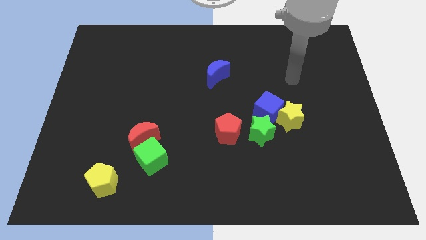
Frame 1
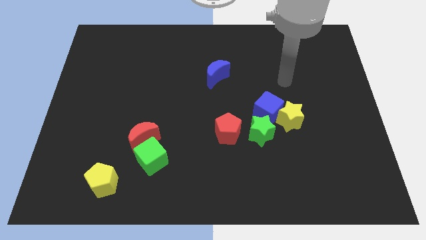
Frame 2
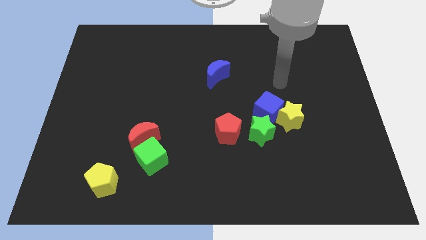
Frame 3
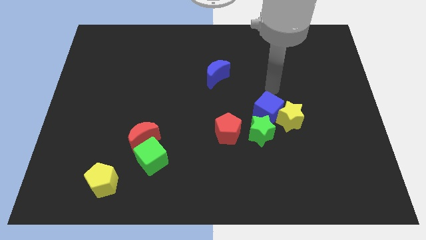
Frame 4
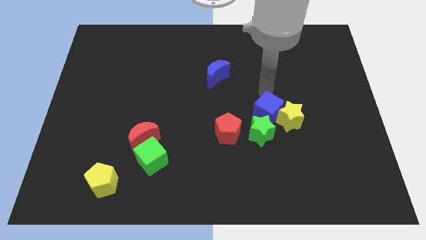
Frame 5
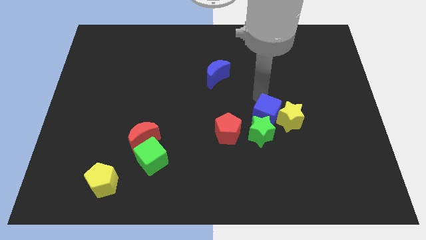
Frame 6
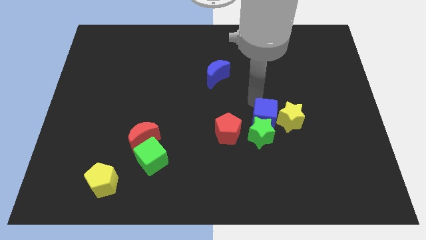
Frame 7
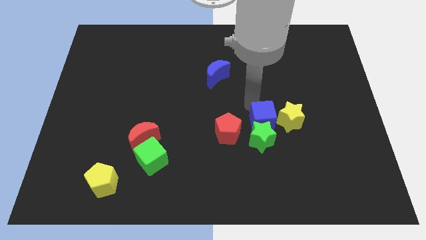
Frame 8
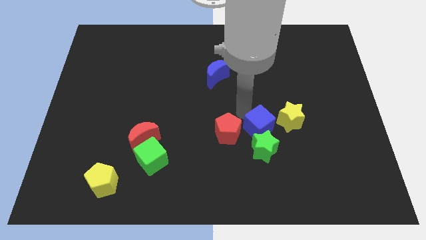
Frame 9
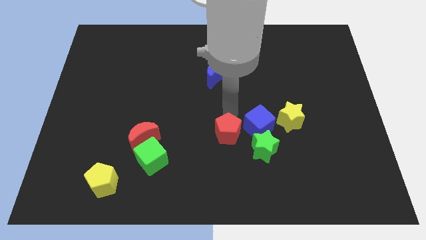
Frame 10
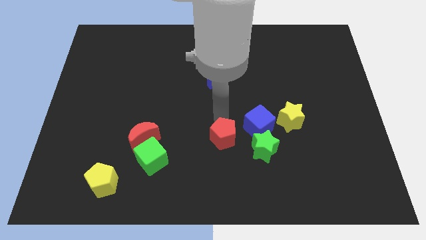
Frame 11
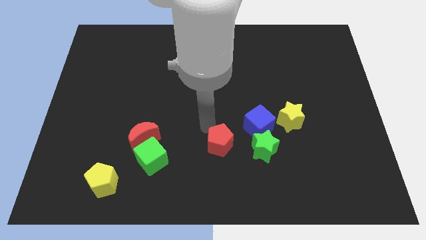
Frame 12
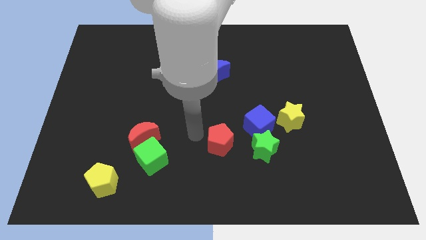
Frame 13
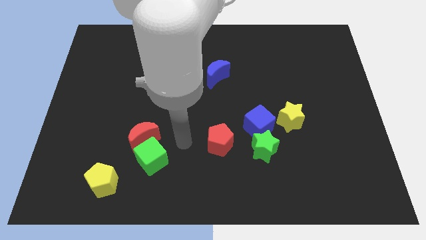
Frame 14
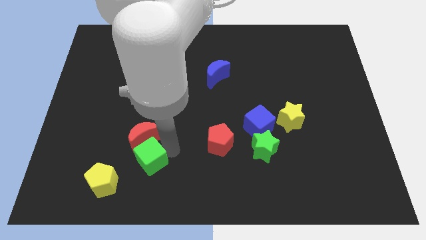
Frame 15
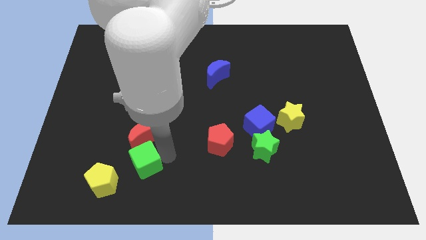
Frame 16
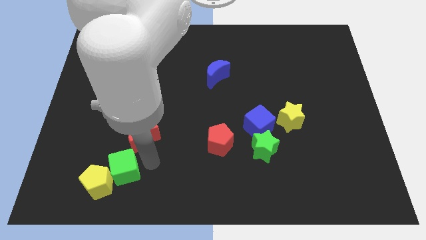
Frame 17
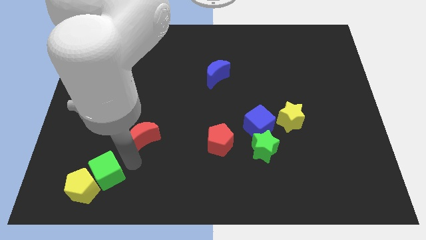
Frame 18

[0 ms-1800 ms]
pull the red moon apart from the green cube

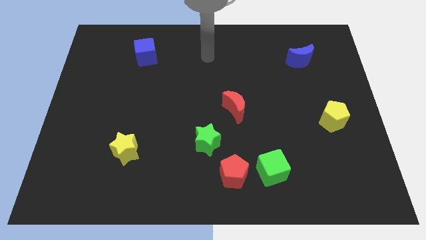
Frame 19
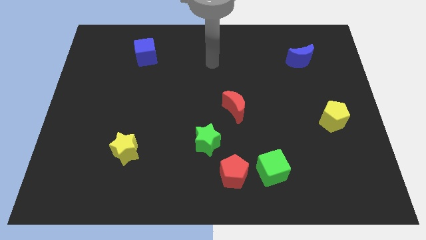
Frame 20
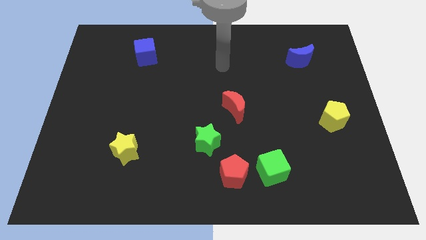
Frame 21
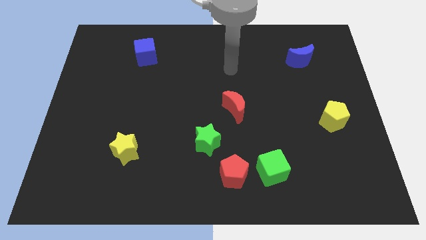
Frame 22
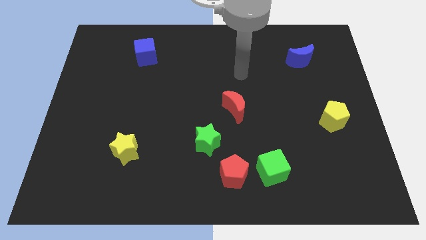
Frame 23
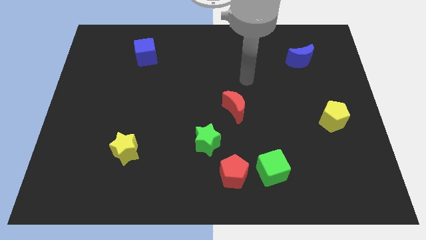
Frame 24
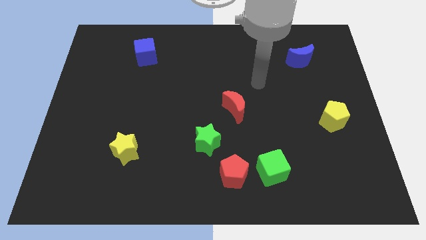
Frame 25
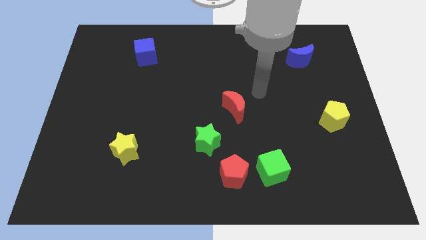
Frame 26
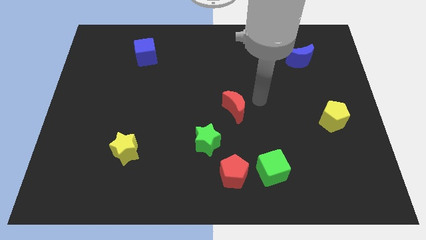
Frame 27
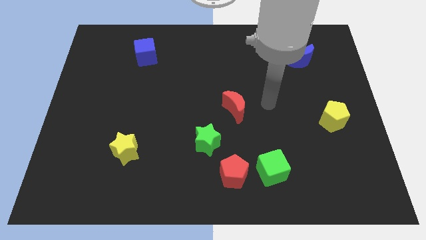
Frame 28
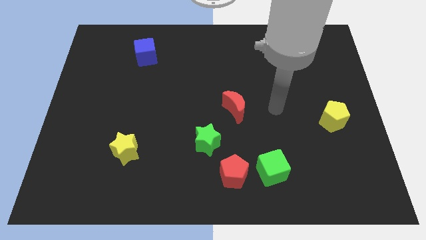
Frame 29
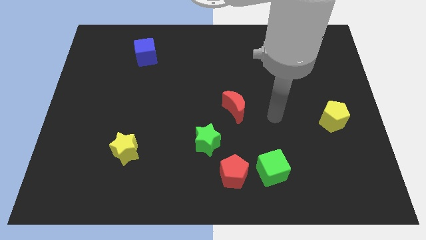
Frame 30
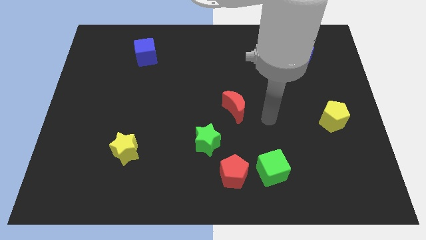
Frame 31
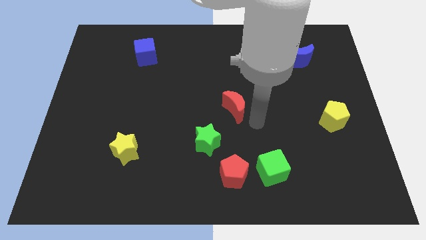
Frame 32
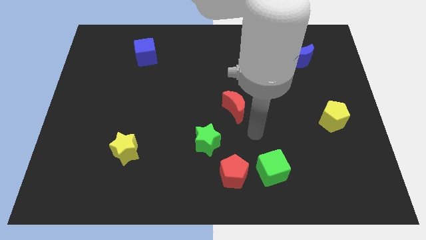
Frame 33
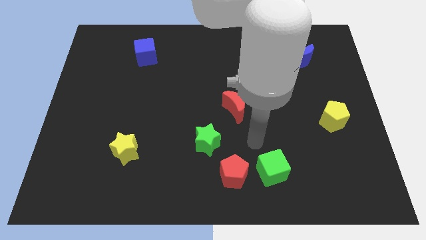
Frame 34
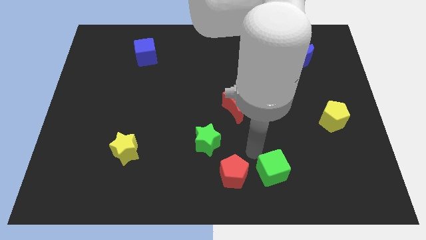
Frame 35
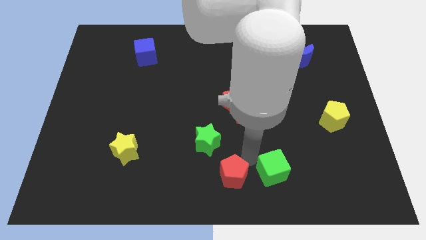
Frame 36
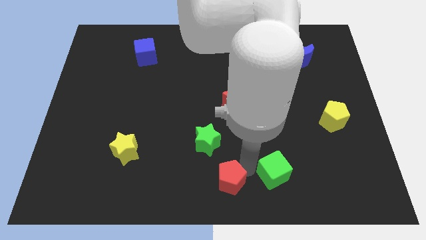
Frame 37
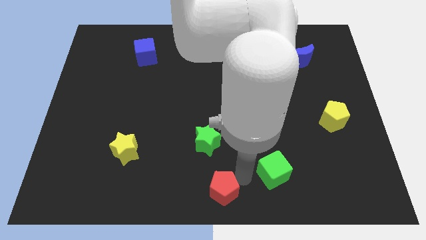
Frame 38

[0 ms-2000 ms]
move the green cube away from the red pentagon

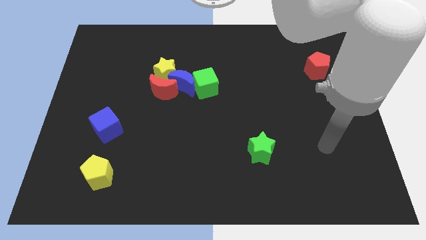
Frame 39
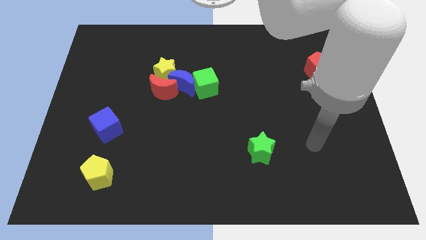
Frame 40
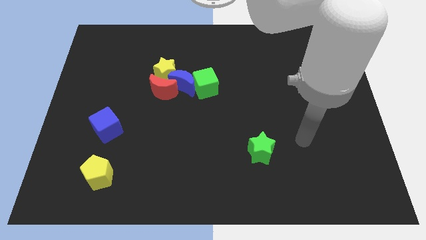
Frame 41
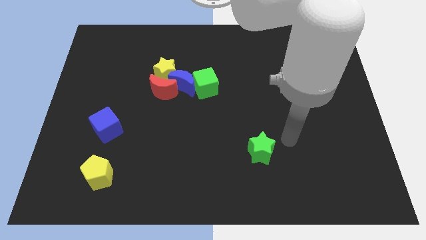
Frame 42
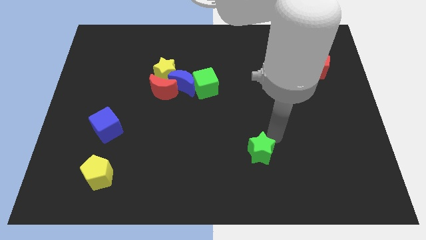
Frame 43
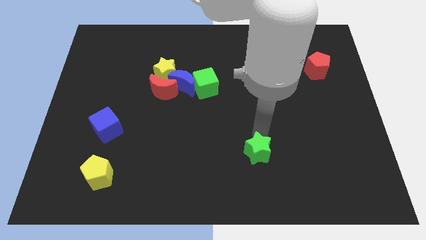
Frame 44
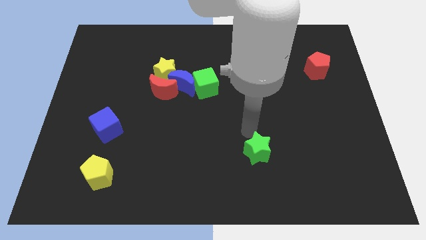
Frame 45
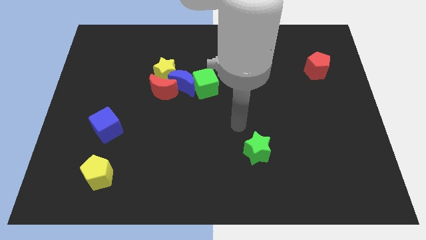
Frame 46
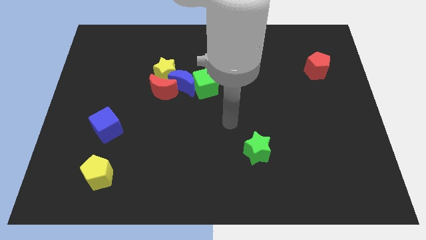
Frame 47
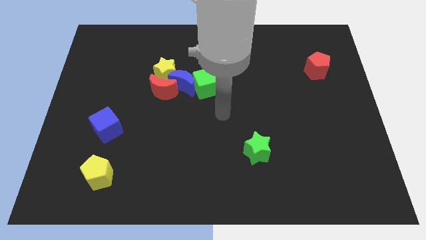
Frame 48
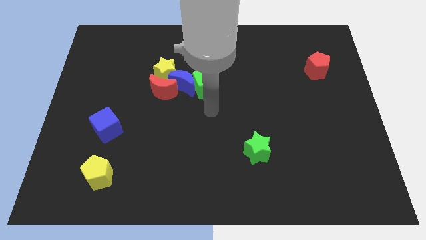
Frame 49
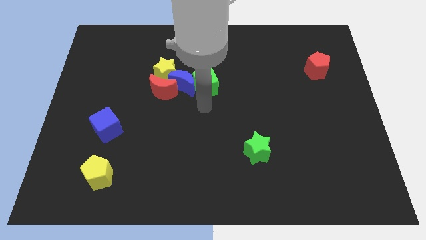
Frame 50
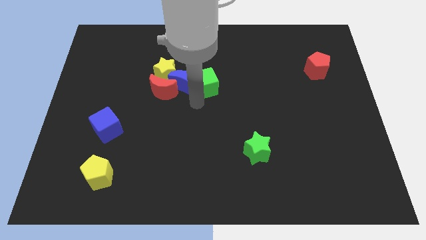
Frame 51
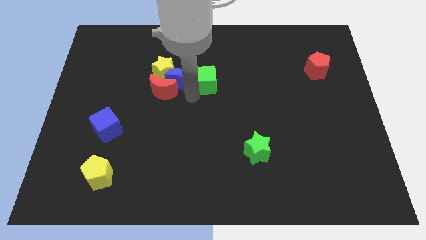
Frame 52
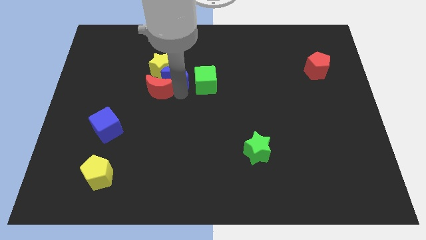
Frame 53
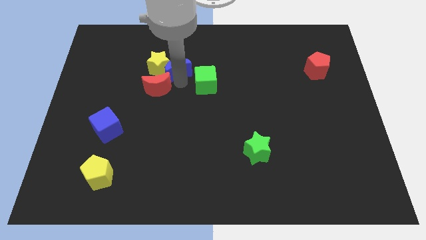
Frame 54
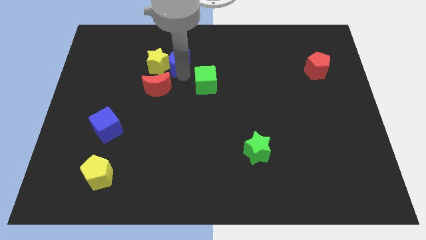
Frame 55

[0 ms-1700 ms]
separate the green cube from the blue moon

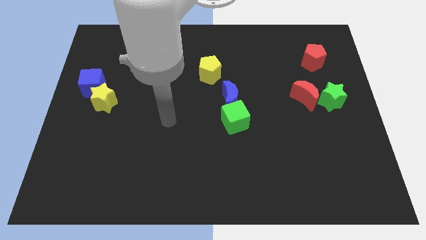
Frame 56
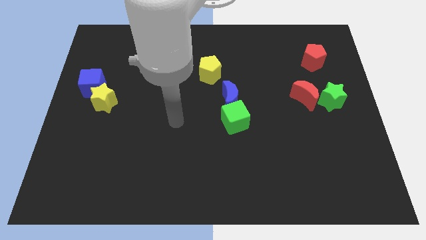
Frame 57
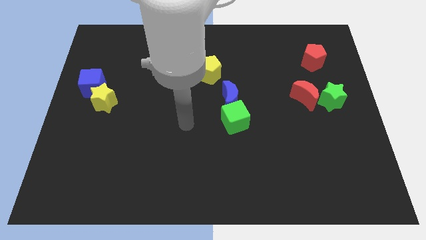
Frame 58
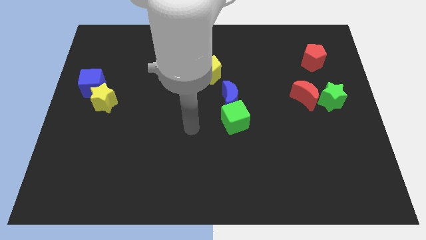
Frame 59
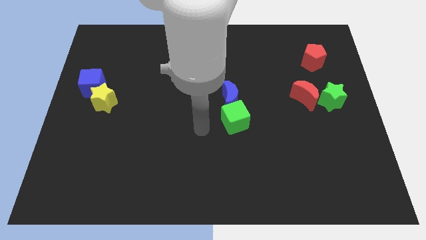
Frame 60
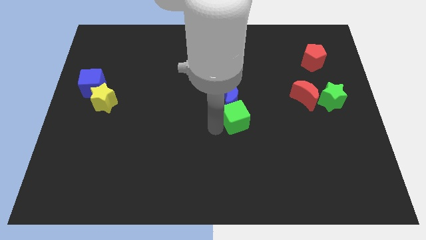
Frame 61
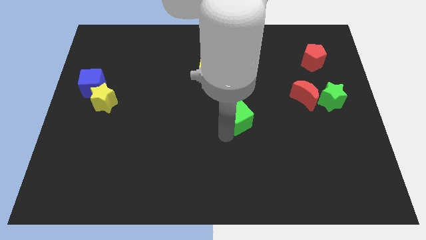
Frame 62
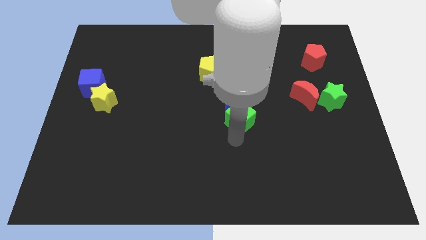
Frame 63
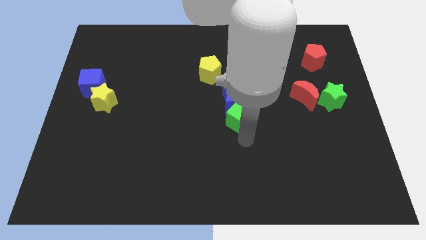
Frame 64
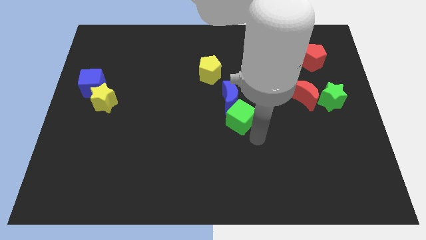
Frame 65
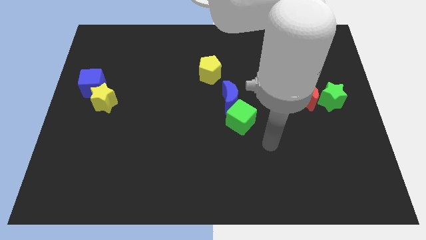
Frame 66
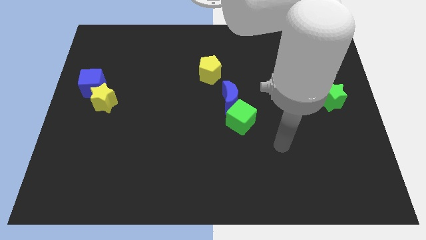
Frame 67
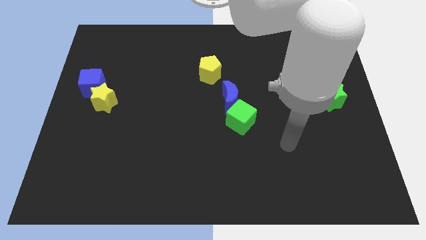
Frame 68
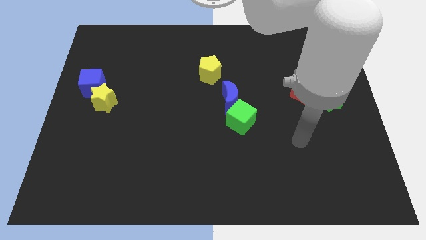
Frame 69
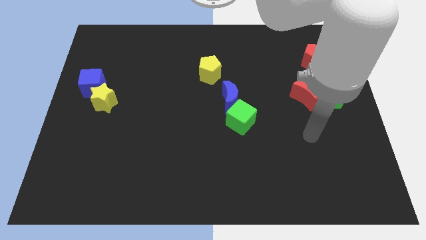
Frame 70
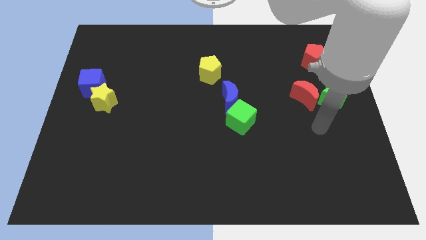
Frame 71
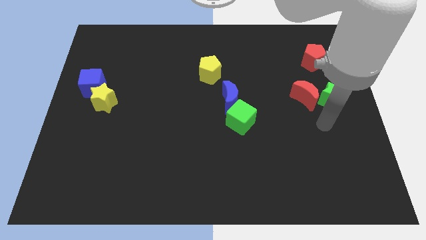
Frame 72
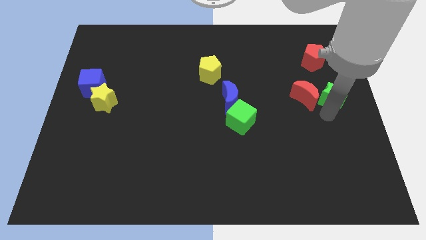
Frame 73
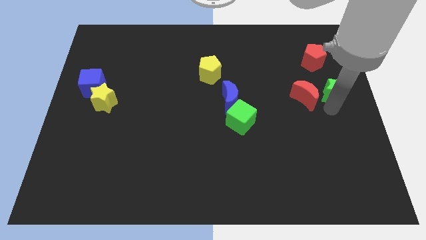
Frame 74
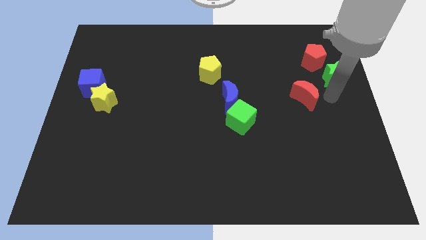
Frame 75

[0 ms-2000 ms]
move the red moon away from the green star

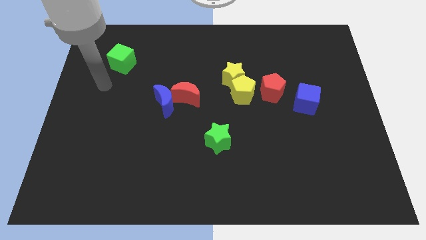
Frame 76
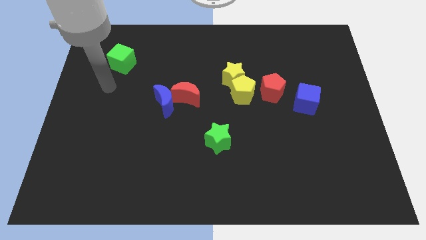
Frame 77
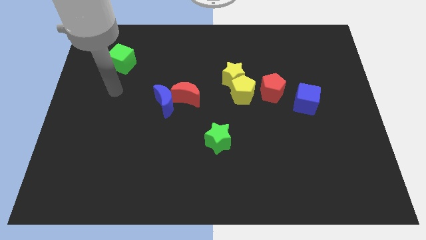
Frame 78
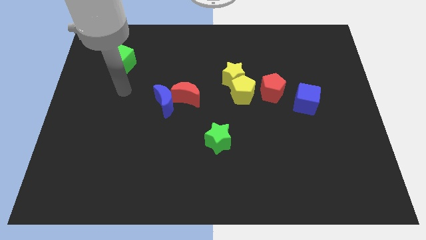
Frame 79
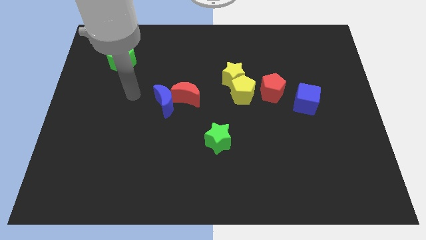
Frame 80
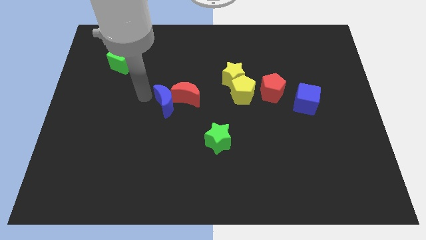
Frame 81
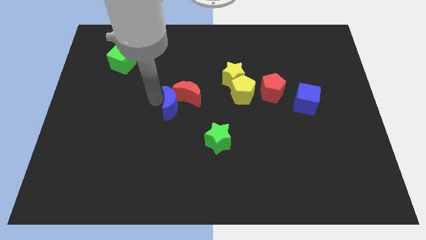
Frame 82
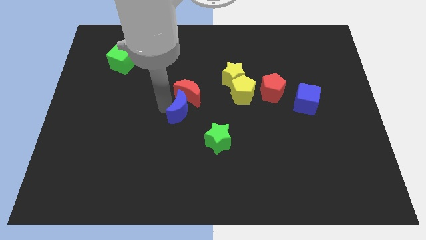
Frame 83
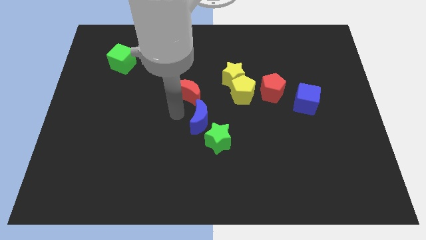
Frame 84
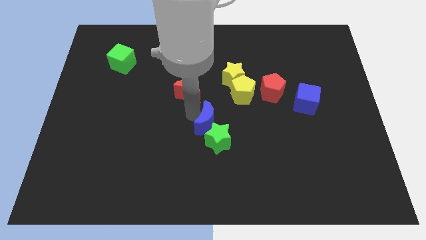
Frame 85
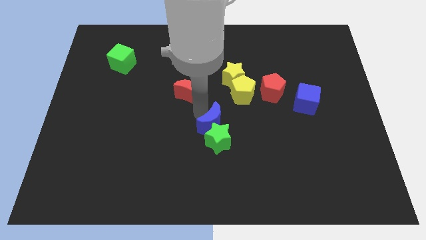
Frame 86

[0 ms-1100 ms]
separate the red moon from the blue moon

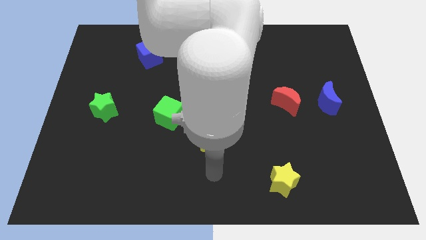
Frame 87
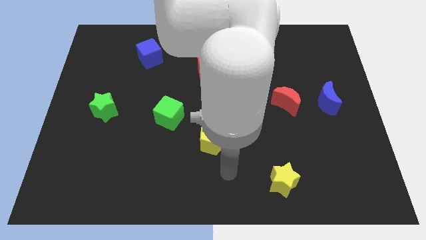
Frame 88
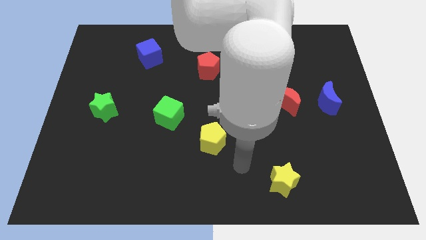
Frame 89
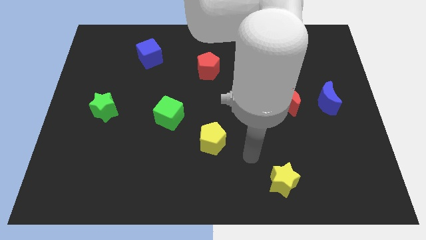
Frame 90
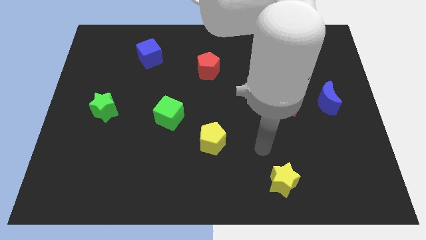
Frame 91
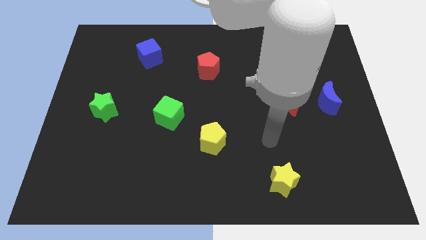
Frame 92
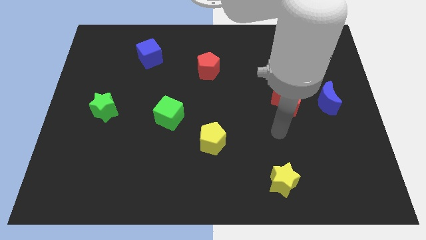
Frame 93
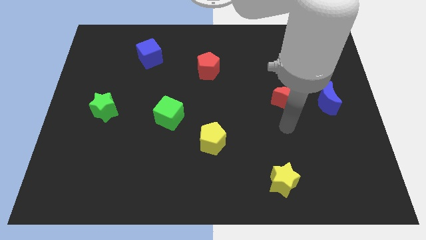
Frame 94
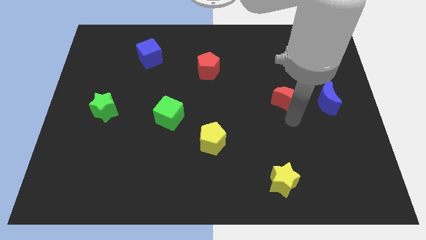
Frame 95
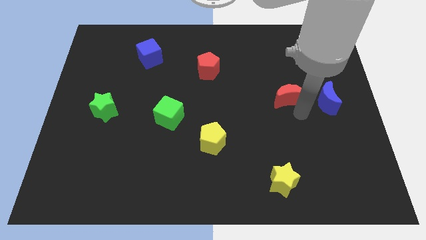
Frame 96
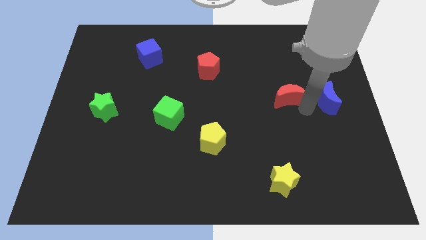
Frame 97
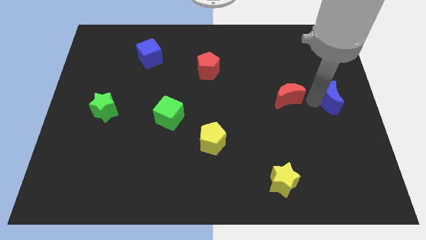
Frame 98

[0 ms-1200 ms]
pull the red moon apart from the blue moon
